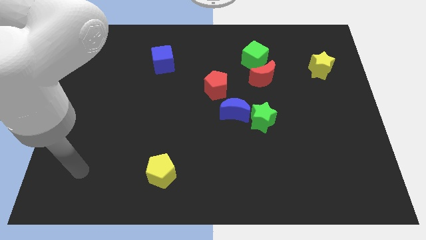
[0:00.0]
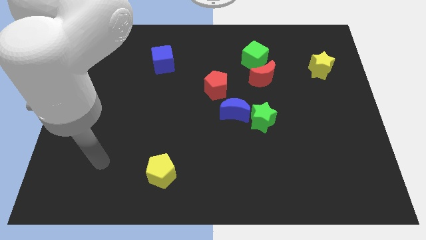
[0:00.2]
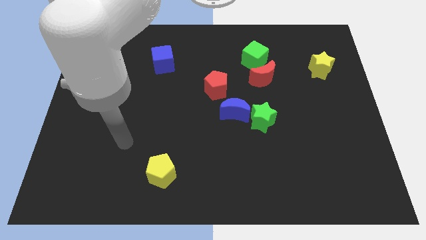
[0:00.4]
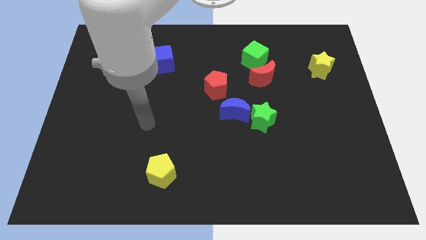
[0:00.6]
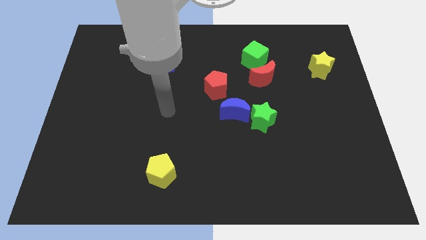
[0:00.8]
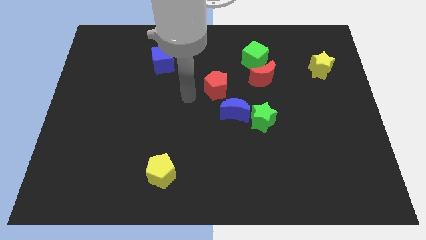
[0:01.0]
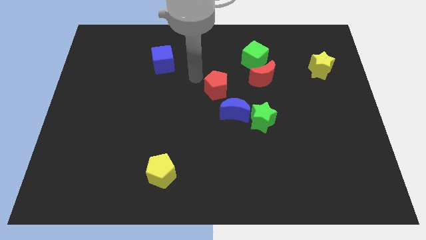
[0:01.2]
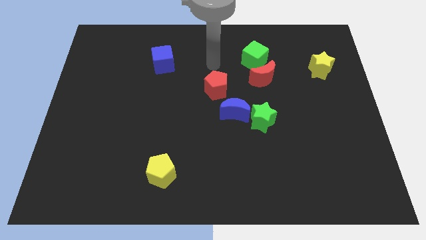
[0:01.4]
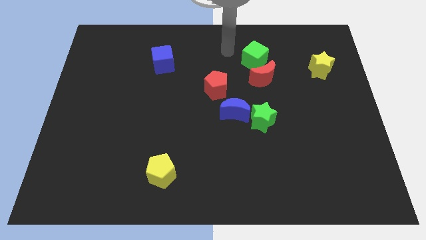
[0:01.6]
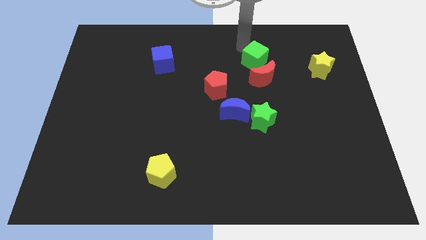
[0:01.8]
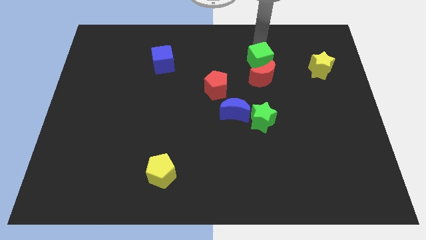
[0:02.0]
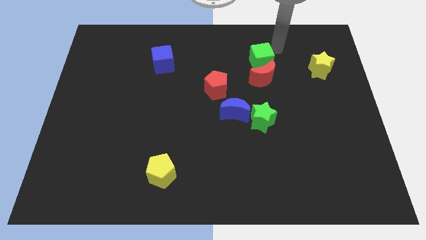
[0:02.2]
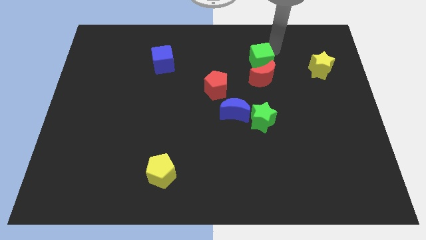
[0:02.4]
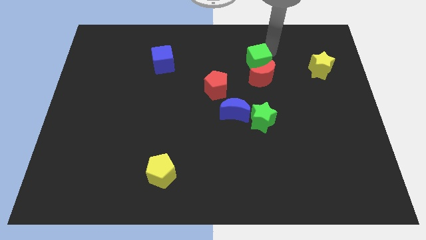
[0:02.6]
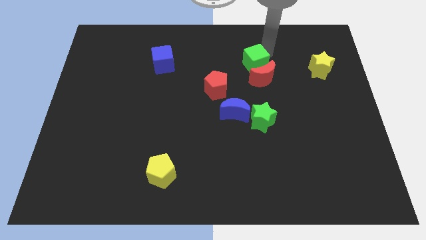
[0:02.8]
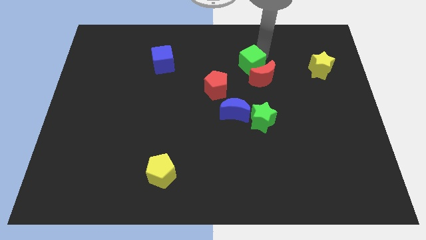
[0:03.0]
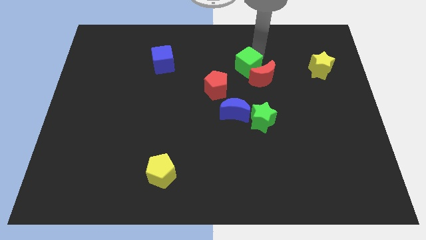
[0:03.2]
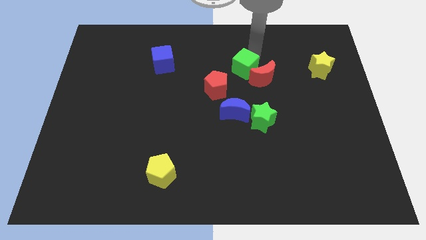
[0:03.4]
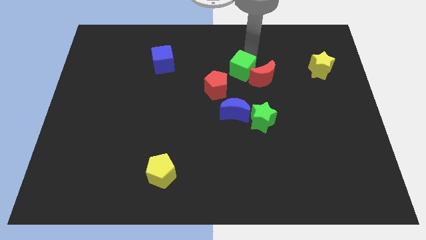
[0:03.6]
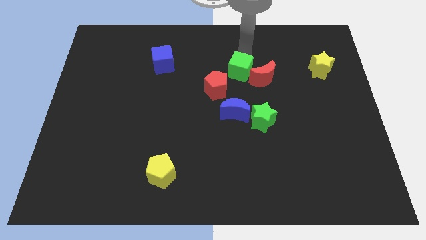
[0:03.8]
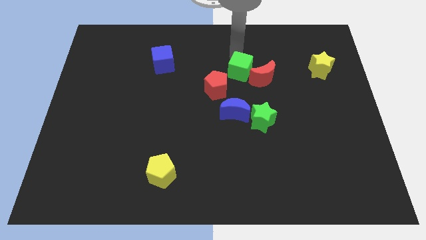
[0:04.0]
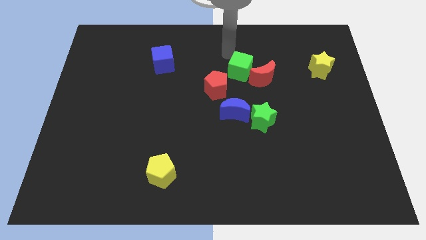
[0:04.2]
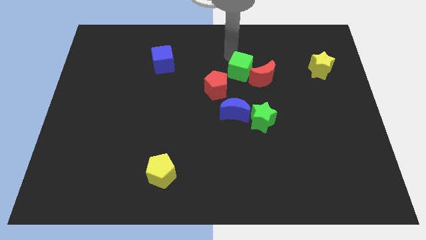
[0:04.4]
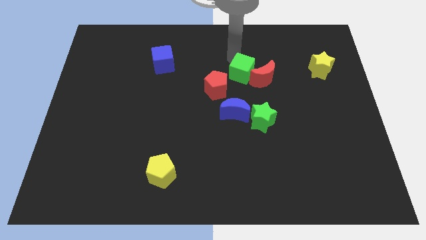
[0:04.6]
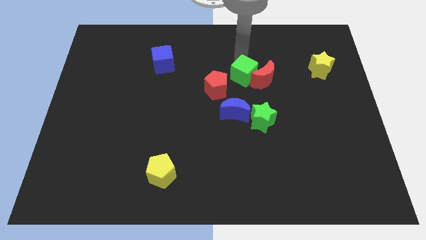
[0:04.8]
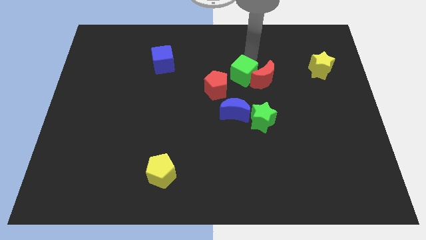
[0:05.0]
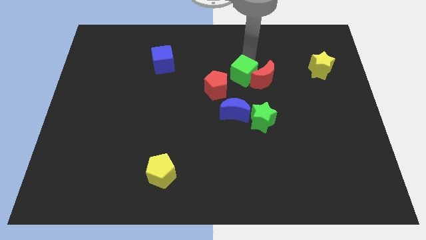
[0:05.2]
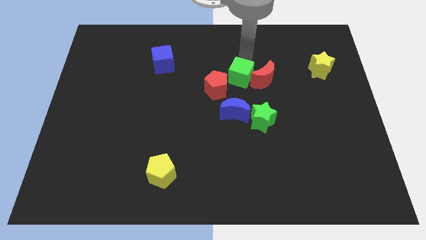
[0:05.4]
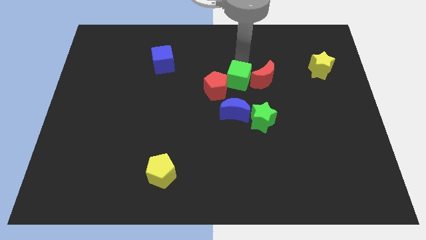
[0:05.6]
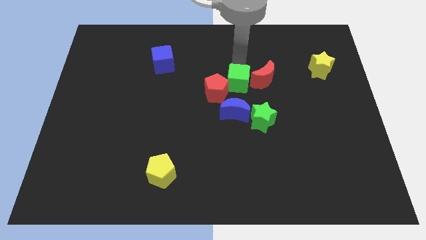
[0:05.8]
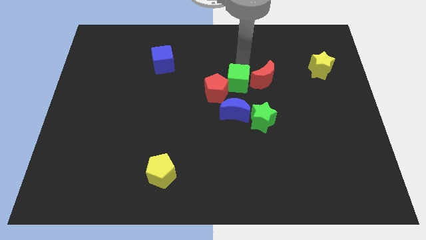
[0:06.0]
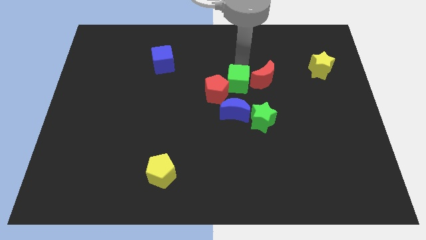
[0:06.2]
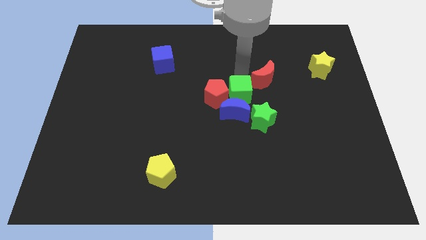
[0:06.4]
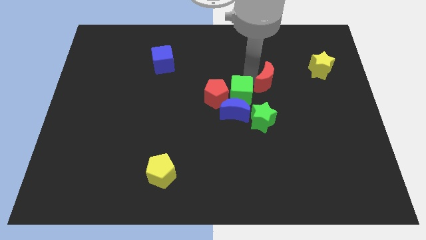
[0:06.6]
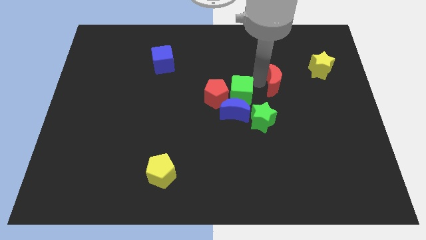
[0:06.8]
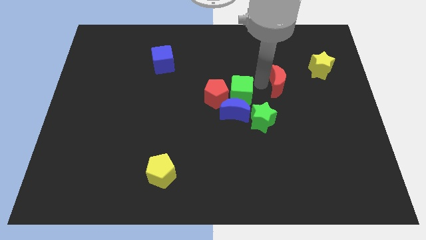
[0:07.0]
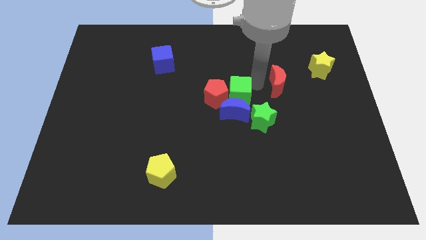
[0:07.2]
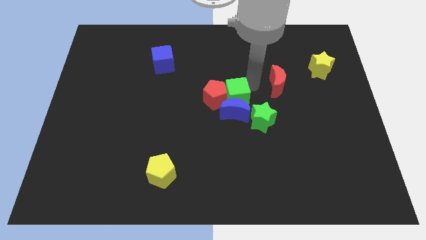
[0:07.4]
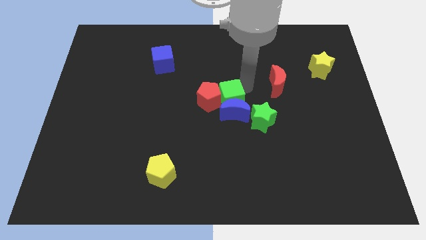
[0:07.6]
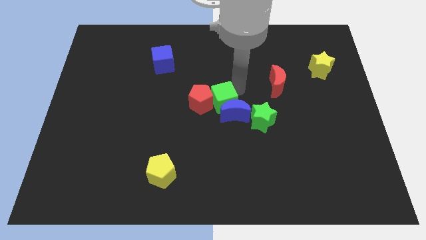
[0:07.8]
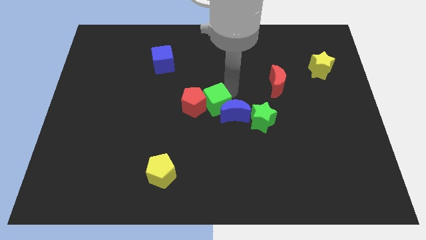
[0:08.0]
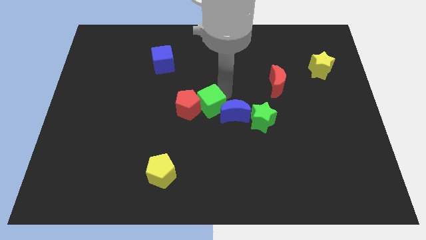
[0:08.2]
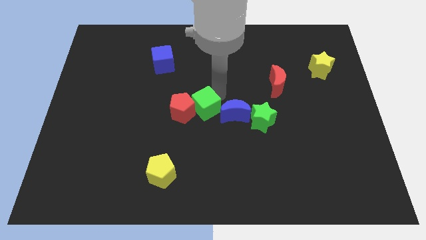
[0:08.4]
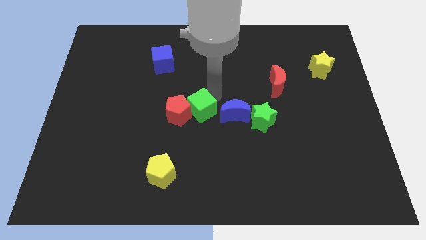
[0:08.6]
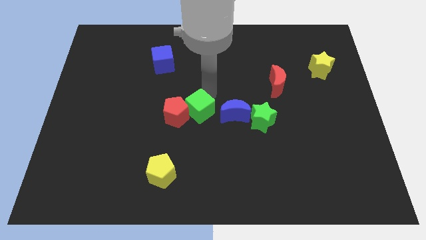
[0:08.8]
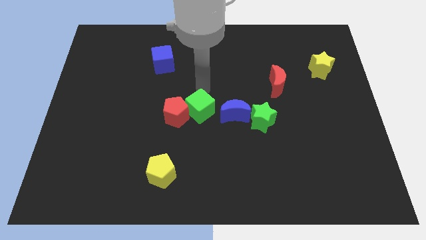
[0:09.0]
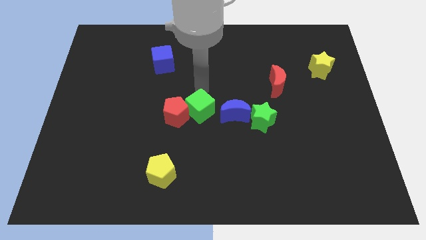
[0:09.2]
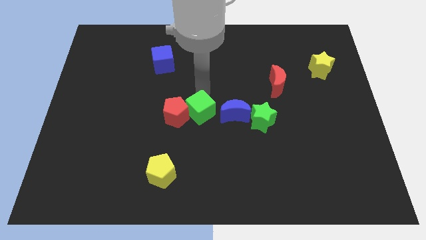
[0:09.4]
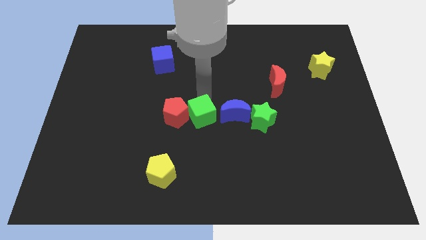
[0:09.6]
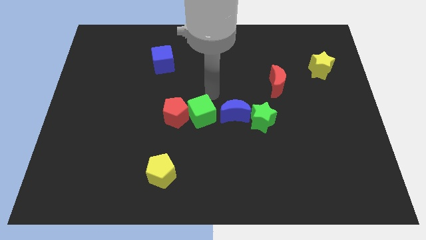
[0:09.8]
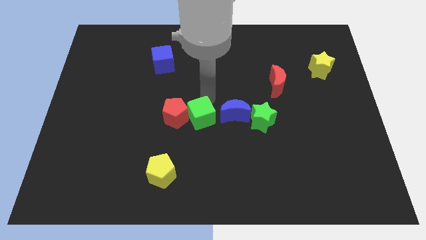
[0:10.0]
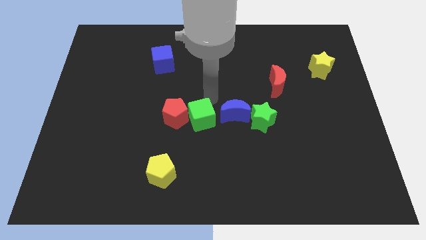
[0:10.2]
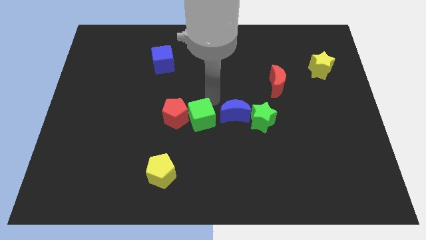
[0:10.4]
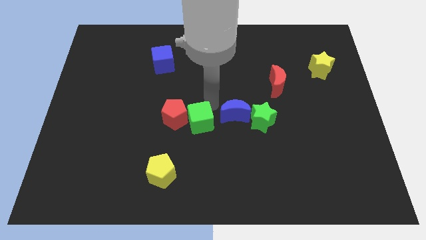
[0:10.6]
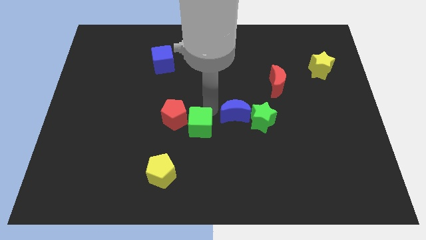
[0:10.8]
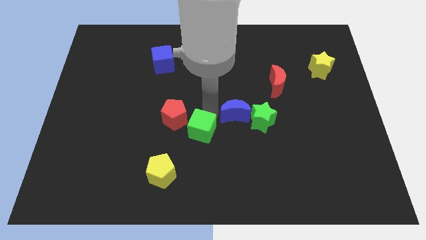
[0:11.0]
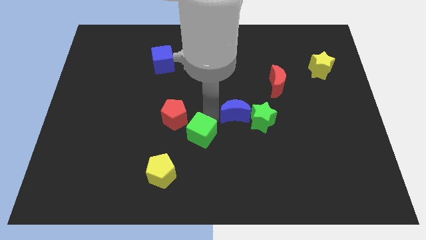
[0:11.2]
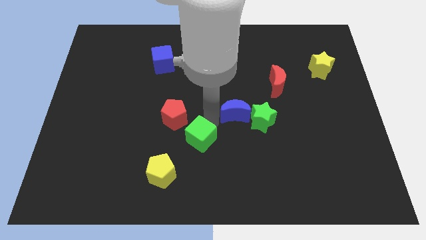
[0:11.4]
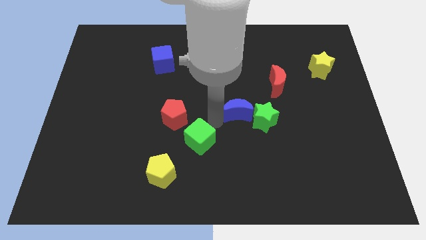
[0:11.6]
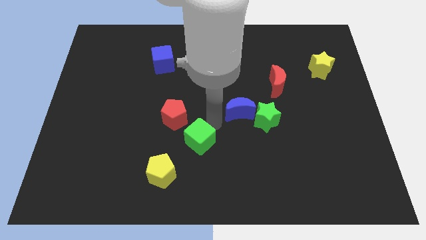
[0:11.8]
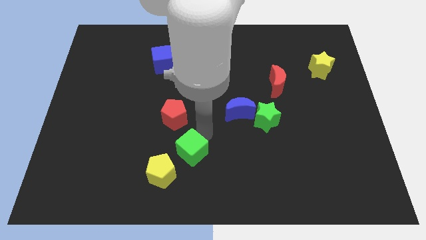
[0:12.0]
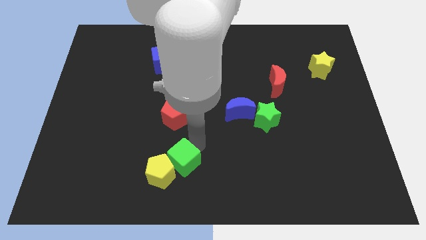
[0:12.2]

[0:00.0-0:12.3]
push the green cube to the yellow pentagon

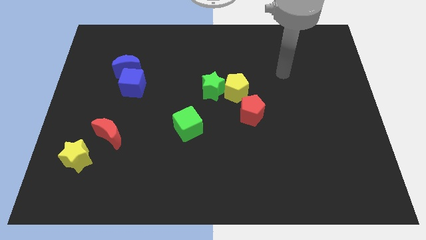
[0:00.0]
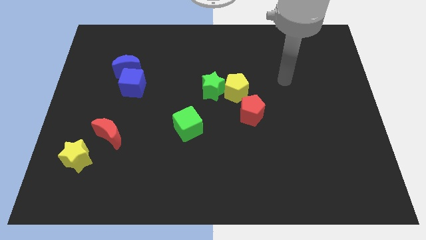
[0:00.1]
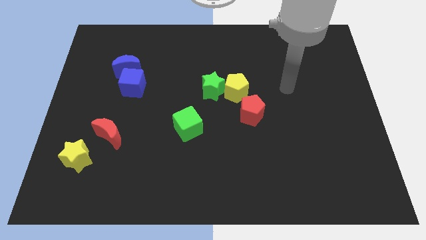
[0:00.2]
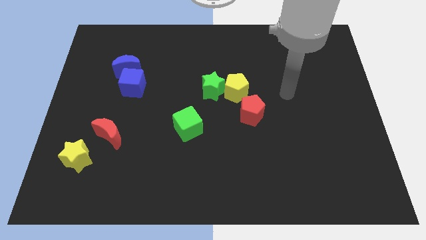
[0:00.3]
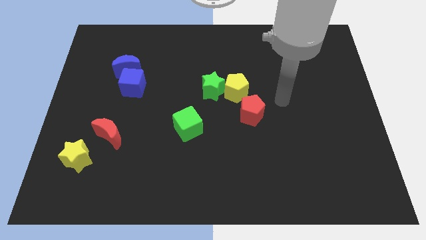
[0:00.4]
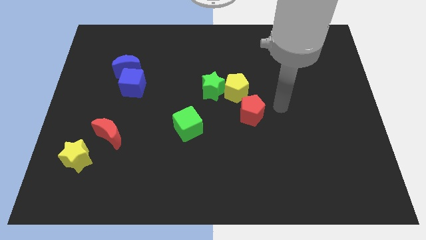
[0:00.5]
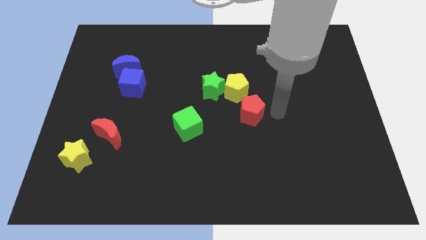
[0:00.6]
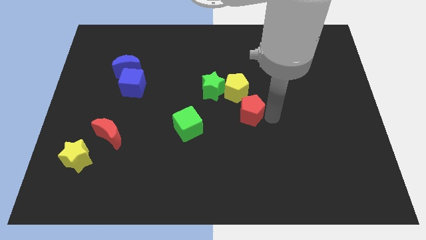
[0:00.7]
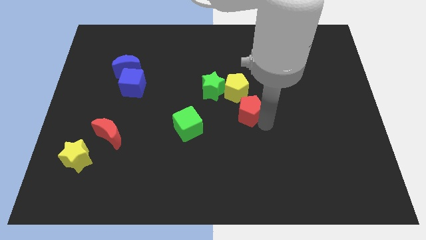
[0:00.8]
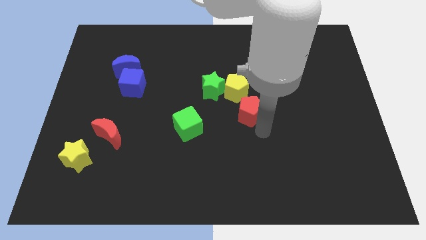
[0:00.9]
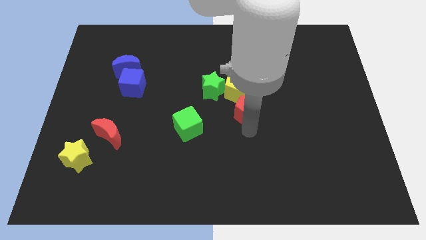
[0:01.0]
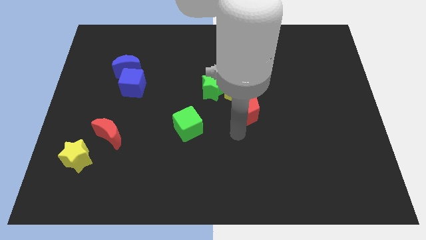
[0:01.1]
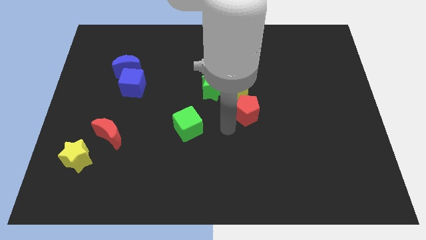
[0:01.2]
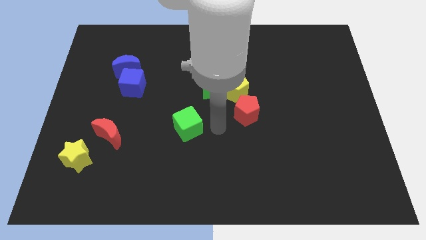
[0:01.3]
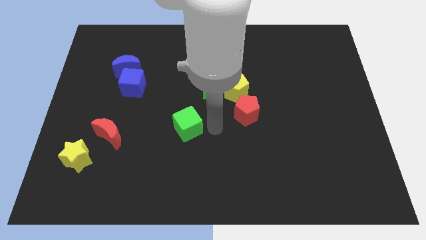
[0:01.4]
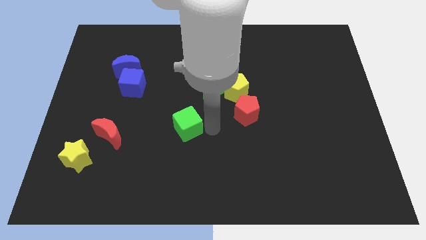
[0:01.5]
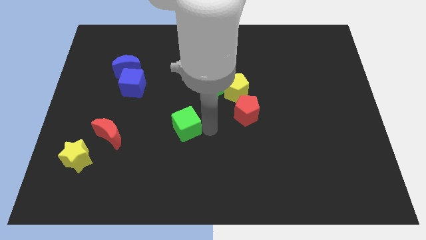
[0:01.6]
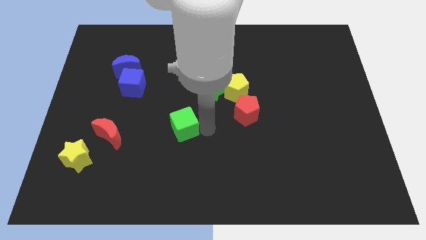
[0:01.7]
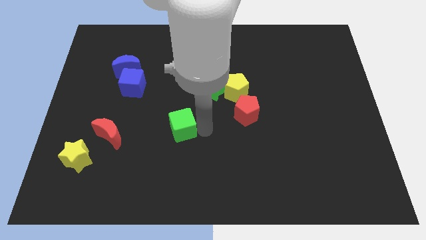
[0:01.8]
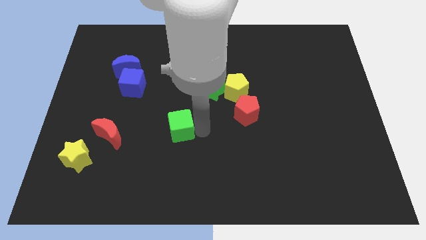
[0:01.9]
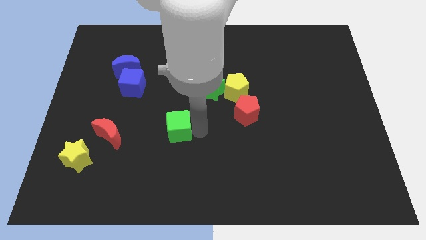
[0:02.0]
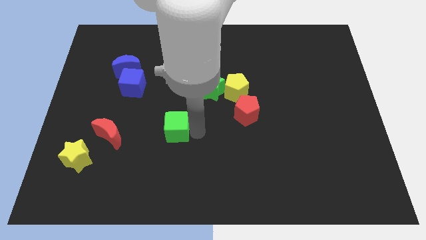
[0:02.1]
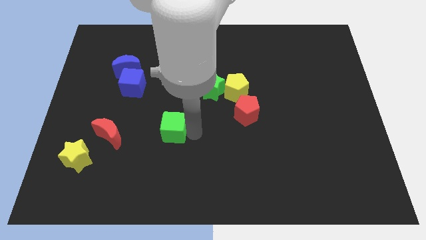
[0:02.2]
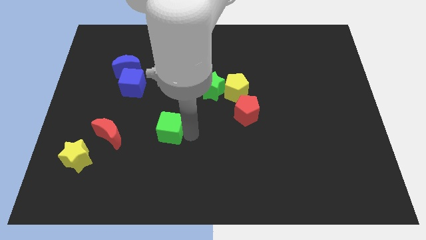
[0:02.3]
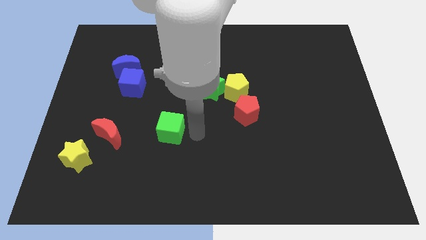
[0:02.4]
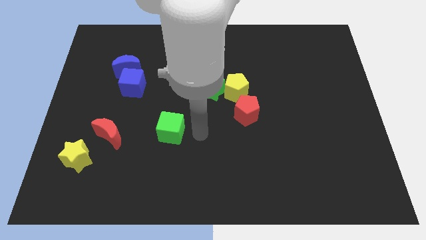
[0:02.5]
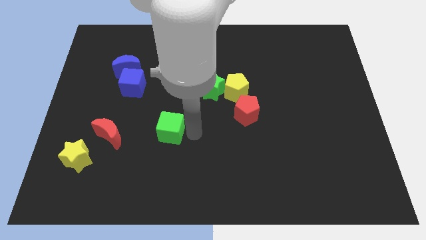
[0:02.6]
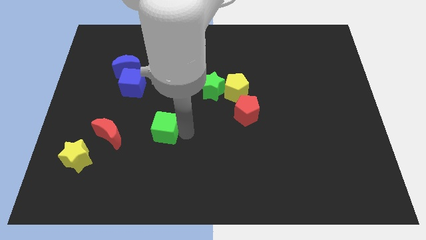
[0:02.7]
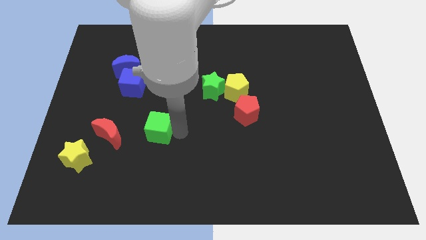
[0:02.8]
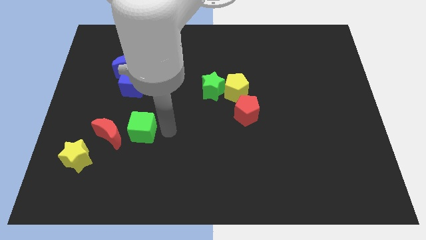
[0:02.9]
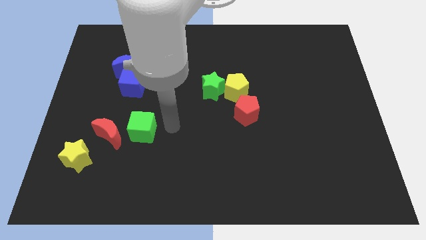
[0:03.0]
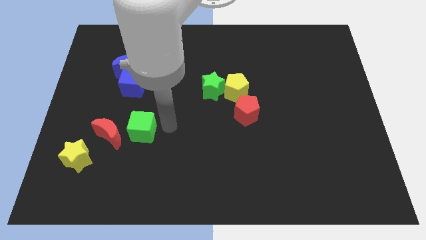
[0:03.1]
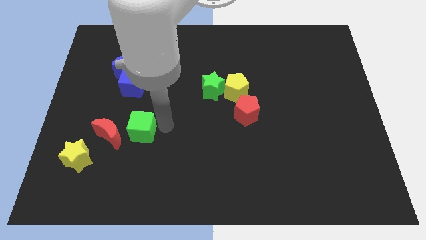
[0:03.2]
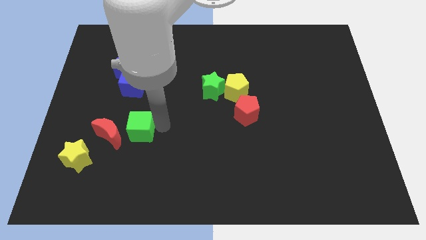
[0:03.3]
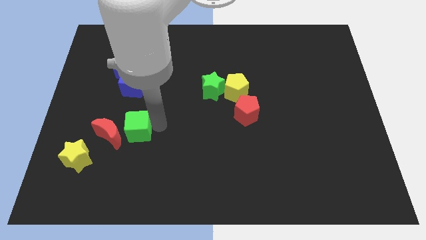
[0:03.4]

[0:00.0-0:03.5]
move the green cube next to the red moon
